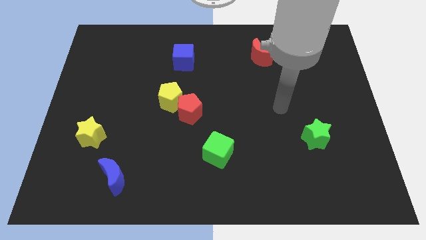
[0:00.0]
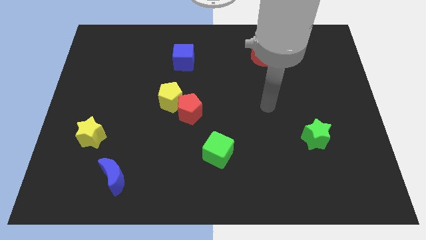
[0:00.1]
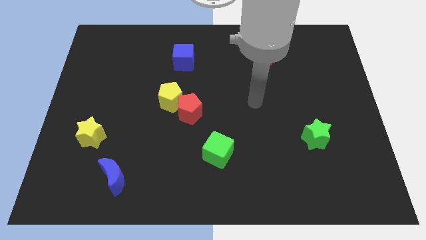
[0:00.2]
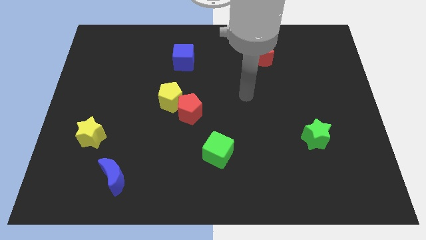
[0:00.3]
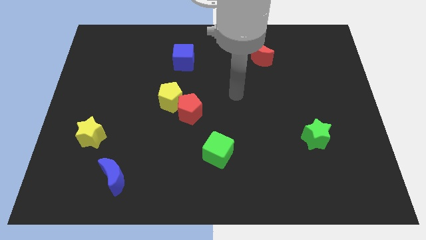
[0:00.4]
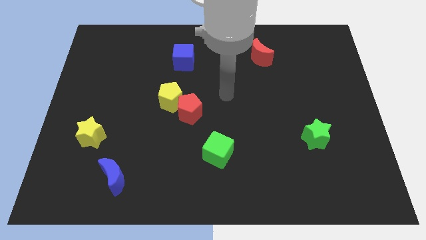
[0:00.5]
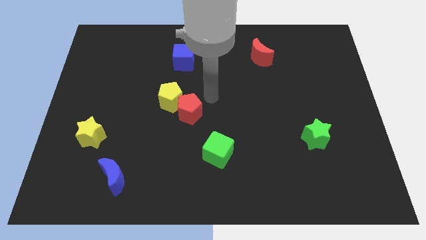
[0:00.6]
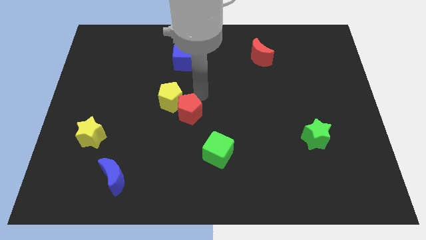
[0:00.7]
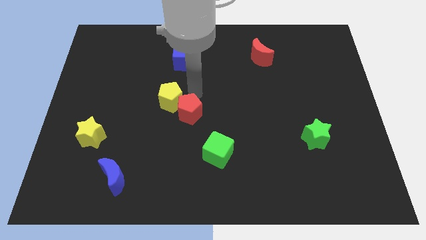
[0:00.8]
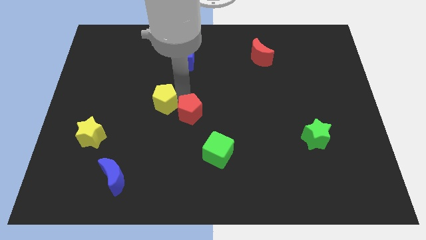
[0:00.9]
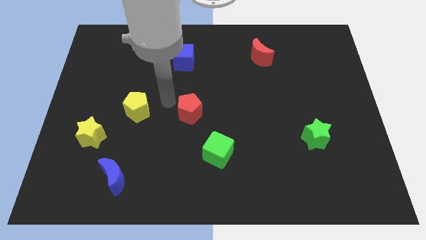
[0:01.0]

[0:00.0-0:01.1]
separate the red pentagon from the yellow pentagon

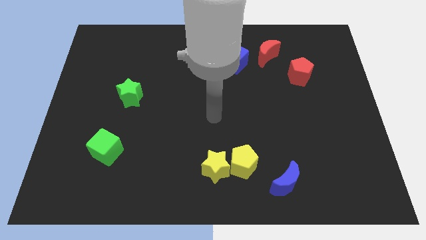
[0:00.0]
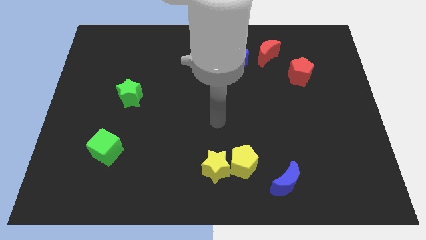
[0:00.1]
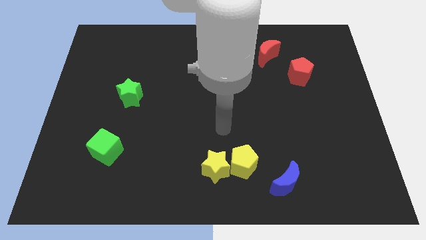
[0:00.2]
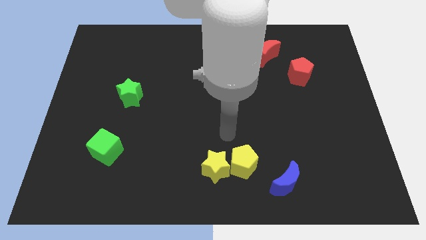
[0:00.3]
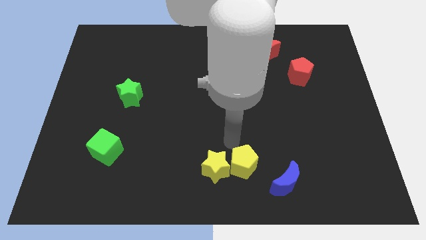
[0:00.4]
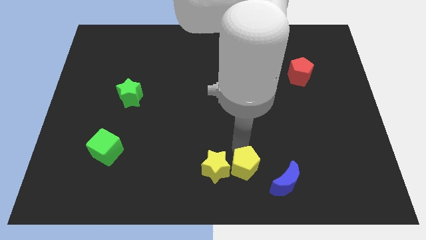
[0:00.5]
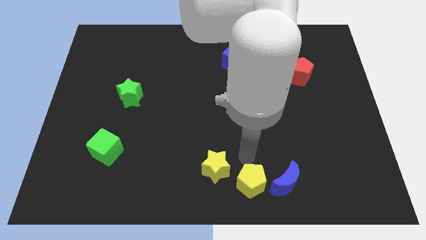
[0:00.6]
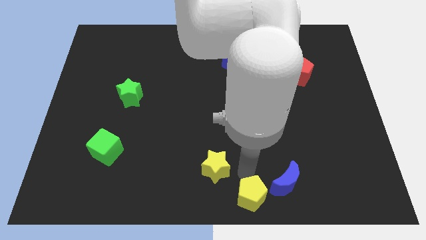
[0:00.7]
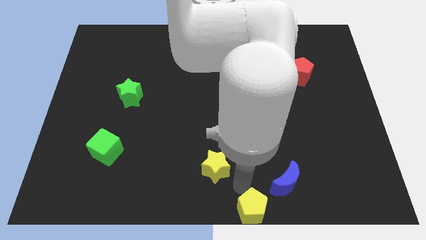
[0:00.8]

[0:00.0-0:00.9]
move the yellow star away from the yellow pentagon

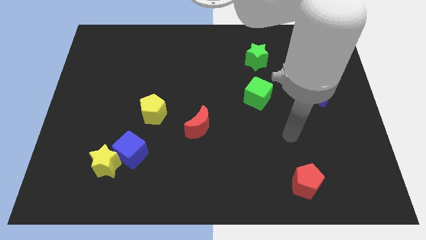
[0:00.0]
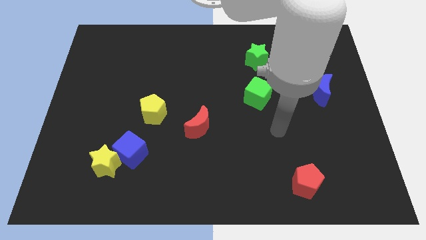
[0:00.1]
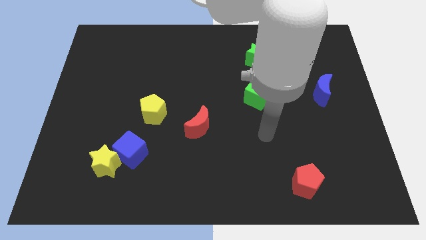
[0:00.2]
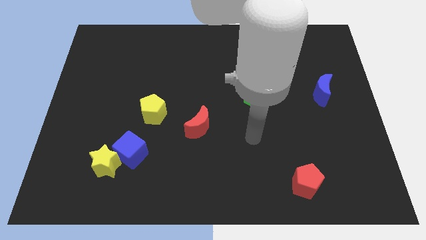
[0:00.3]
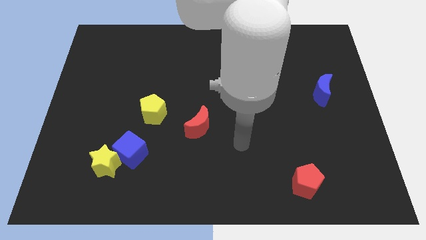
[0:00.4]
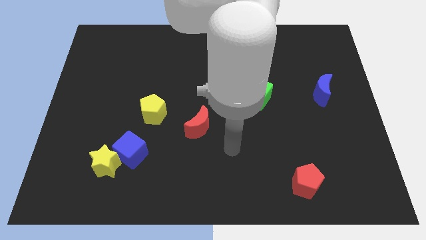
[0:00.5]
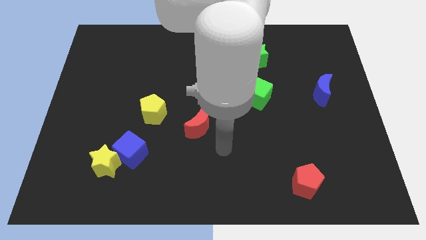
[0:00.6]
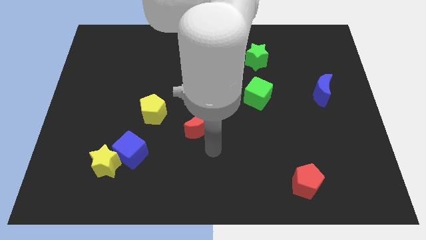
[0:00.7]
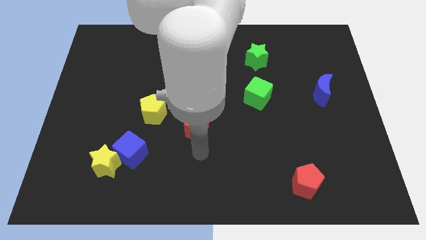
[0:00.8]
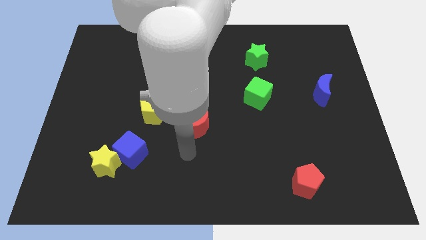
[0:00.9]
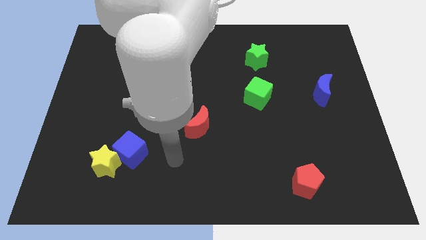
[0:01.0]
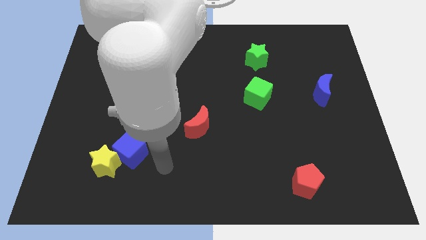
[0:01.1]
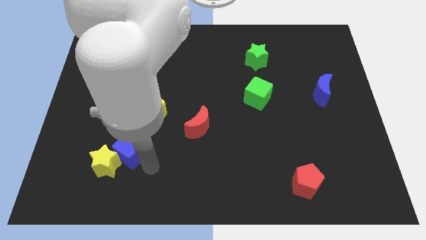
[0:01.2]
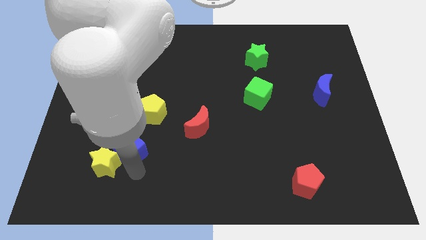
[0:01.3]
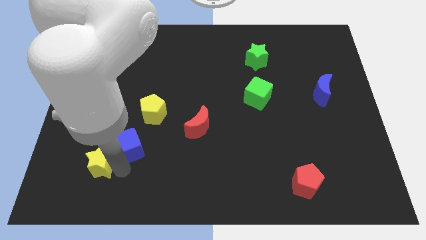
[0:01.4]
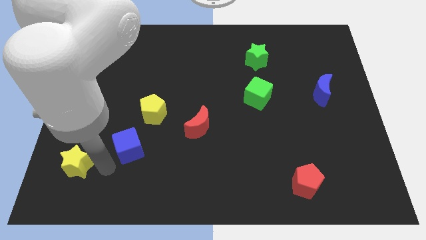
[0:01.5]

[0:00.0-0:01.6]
pull the blue cube apart from the yellow star

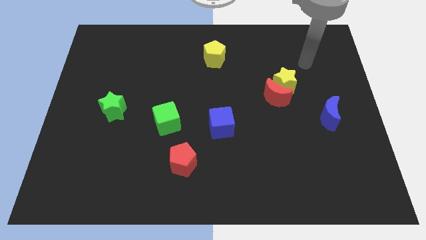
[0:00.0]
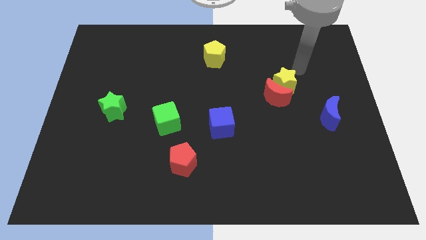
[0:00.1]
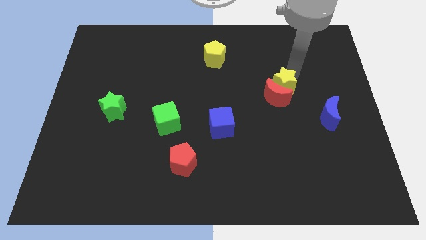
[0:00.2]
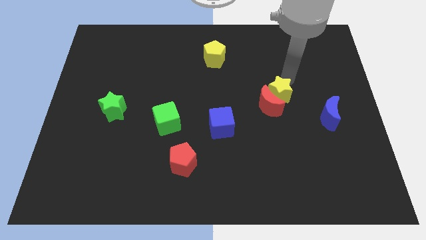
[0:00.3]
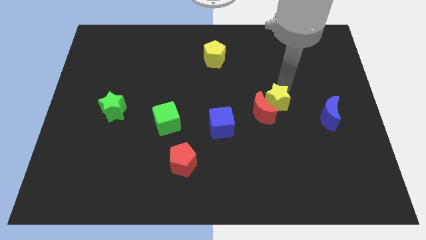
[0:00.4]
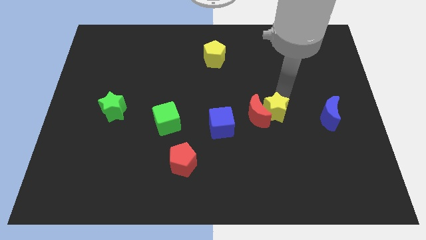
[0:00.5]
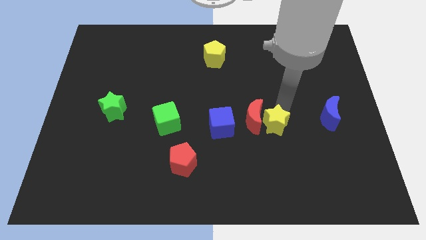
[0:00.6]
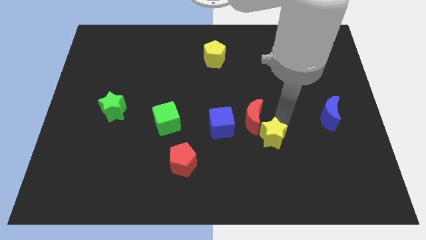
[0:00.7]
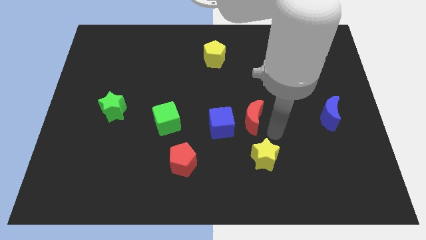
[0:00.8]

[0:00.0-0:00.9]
move the red moon away from the yellow star

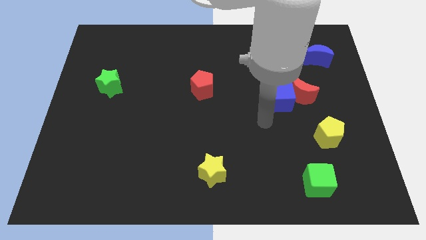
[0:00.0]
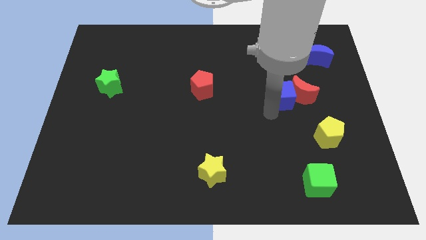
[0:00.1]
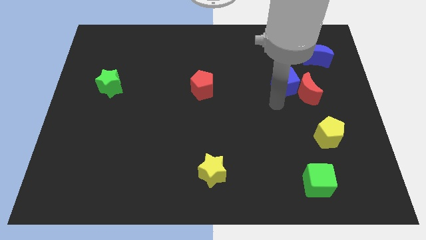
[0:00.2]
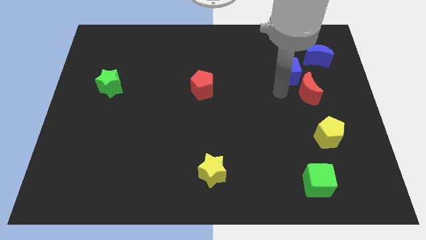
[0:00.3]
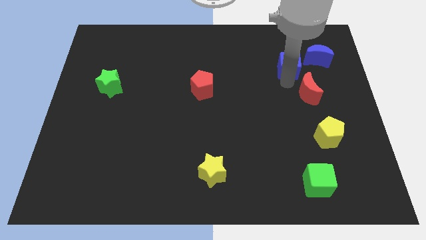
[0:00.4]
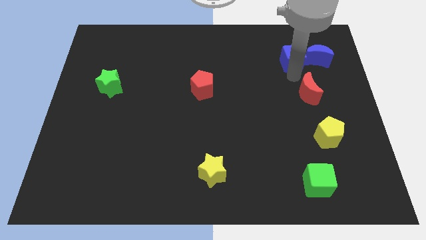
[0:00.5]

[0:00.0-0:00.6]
separate the red moon from the blue cube

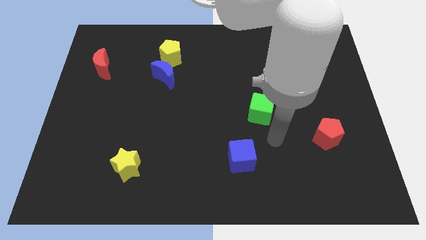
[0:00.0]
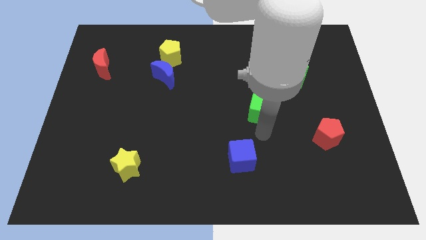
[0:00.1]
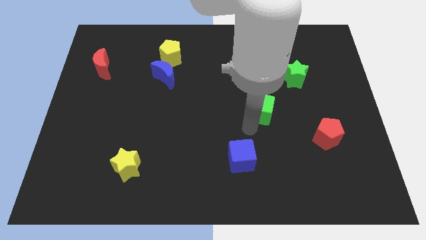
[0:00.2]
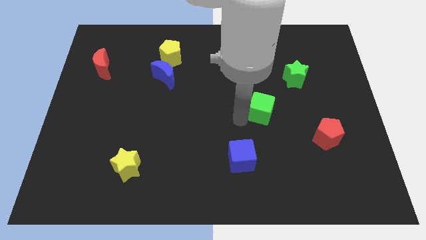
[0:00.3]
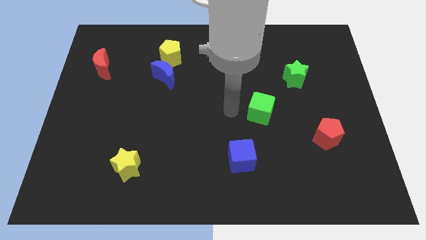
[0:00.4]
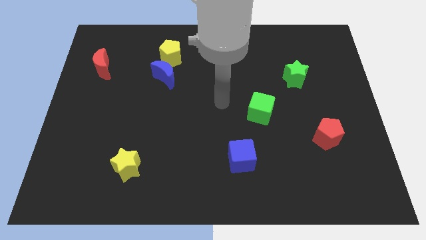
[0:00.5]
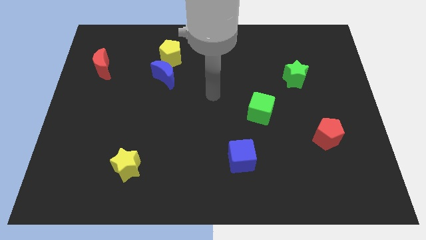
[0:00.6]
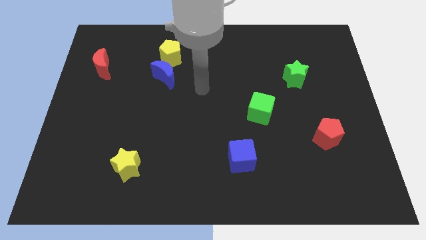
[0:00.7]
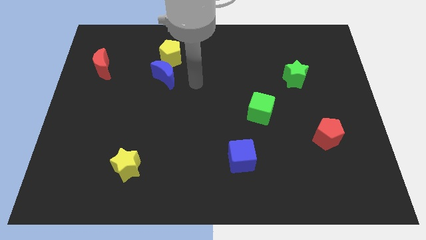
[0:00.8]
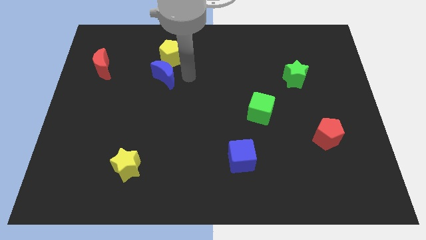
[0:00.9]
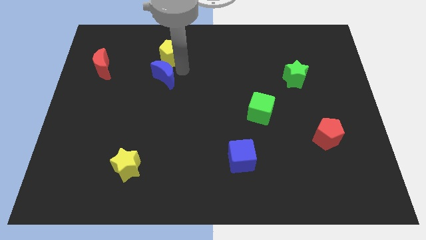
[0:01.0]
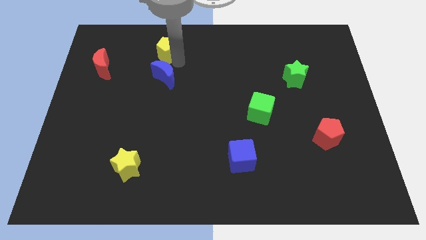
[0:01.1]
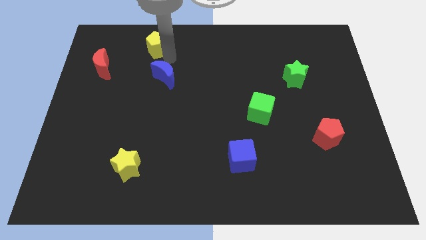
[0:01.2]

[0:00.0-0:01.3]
pull the blue moon apart from the yellow pentagon

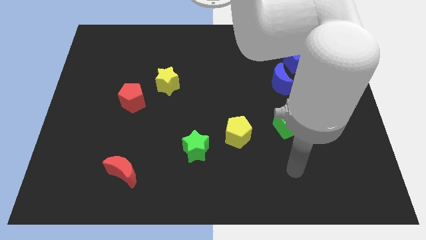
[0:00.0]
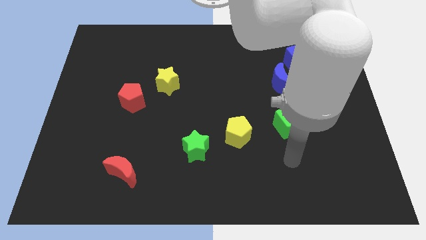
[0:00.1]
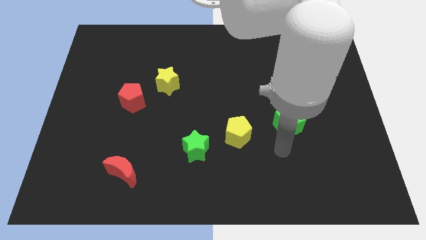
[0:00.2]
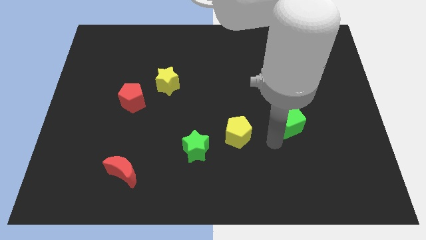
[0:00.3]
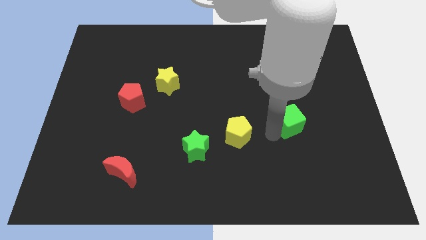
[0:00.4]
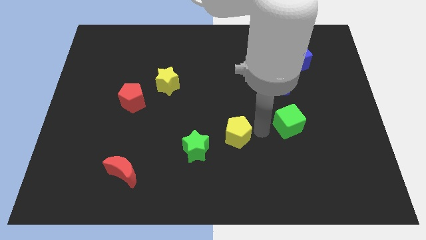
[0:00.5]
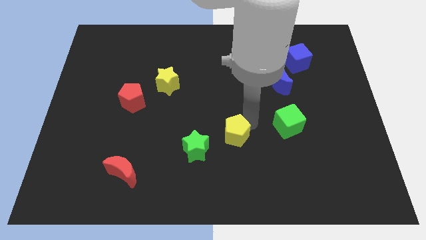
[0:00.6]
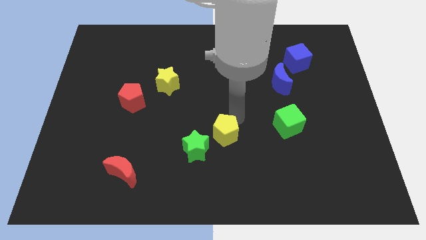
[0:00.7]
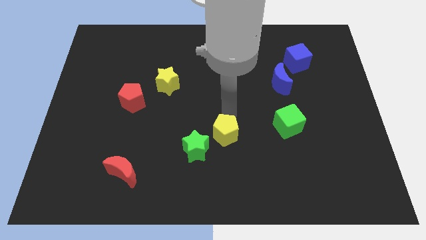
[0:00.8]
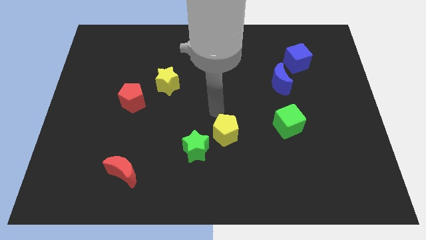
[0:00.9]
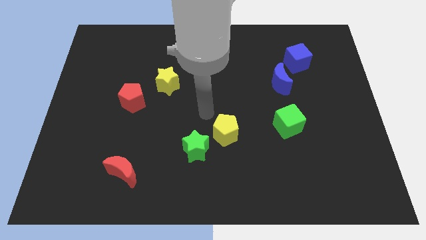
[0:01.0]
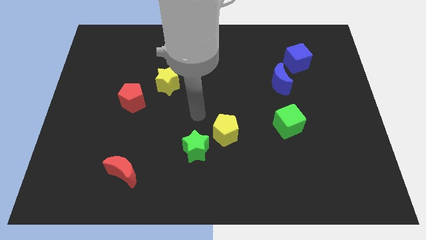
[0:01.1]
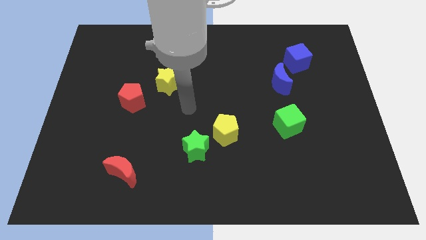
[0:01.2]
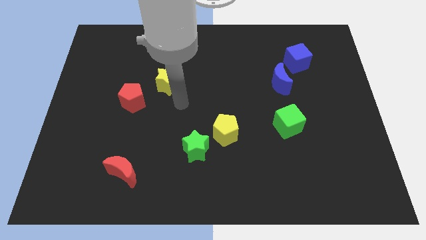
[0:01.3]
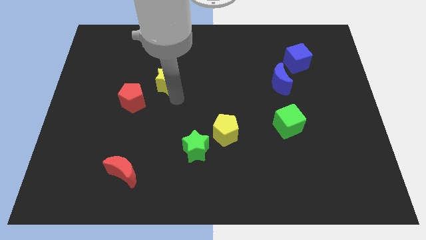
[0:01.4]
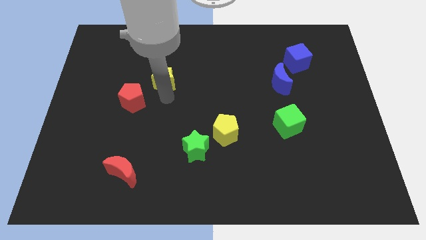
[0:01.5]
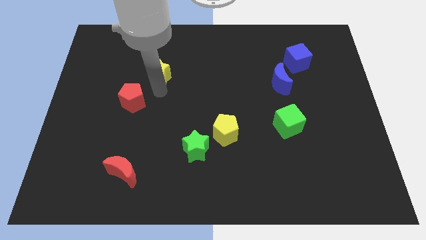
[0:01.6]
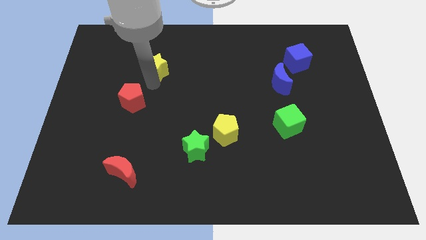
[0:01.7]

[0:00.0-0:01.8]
pull the red pentagon apart from the yellow star

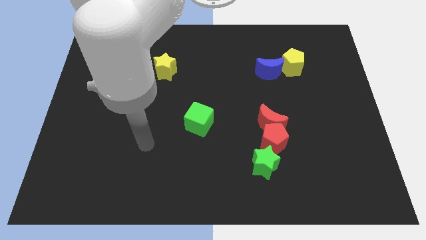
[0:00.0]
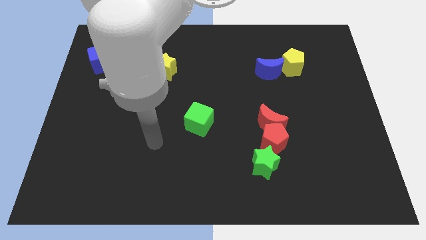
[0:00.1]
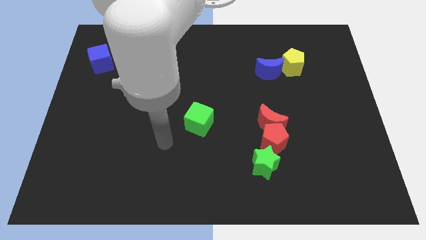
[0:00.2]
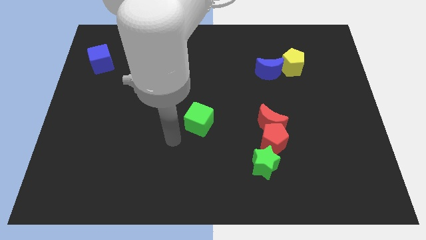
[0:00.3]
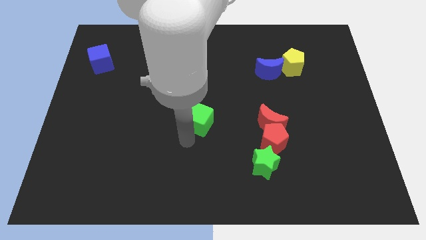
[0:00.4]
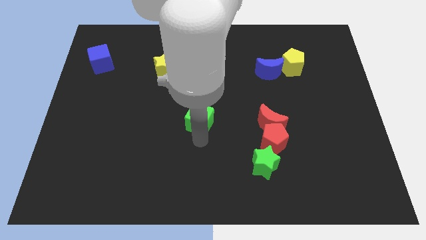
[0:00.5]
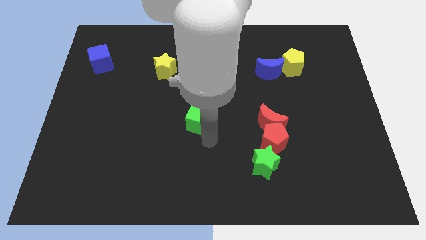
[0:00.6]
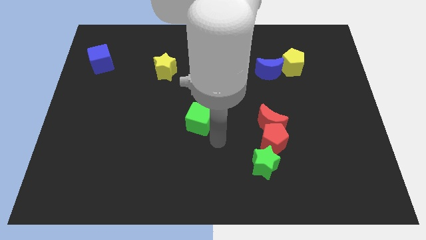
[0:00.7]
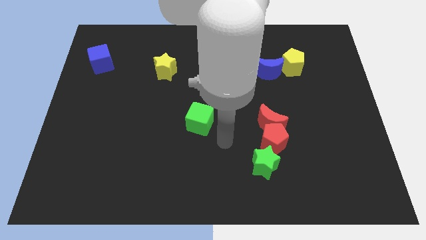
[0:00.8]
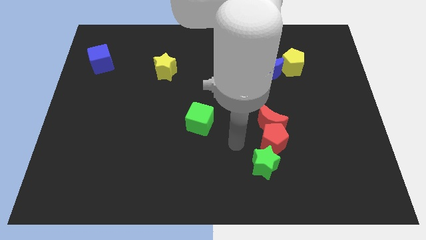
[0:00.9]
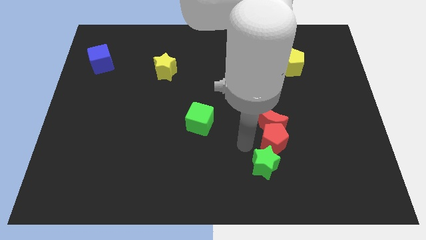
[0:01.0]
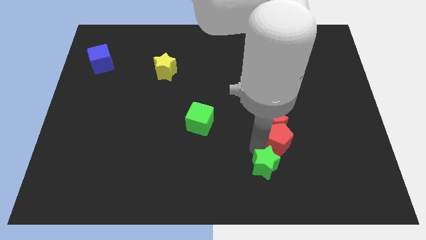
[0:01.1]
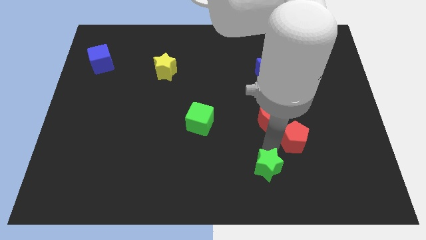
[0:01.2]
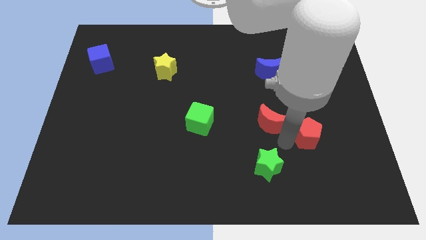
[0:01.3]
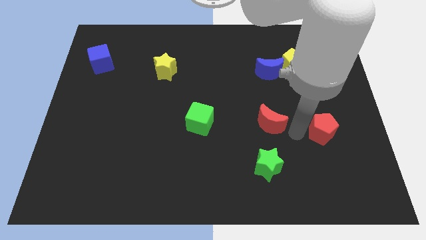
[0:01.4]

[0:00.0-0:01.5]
separate the red moon from the red pentagon
